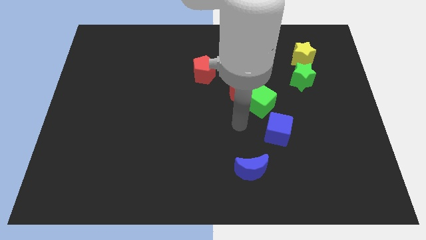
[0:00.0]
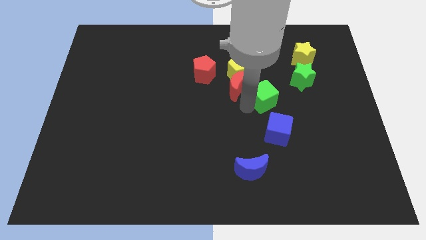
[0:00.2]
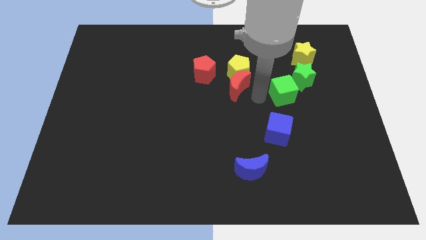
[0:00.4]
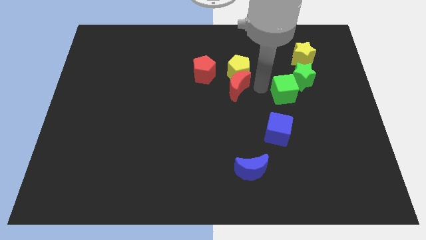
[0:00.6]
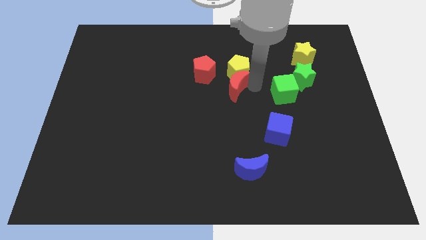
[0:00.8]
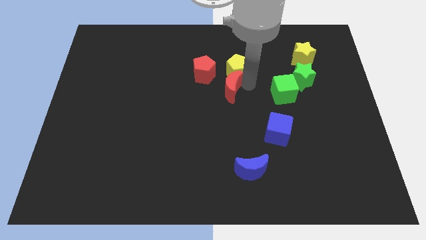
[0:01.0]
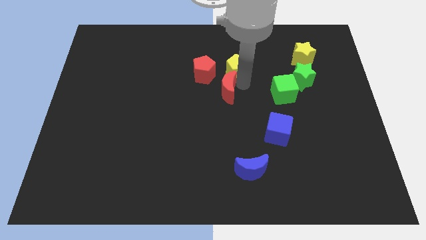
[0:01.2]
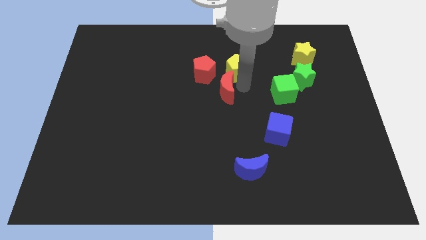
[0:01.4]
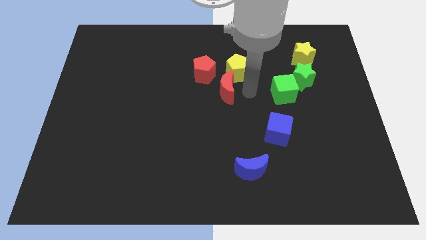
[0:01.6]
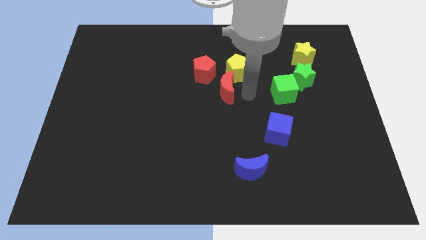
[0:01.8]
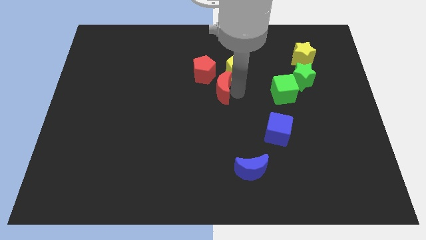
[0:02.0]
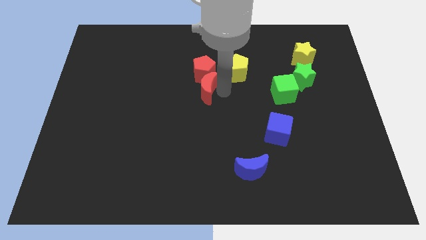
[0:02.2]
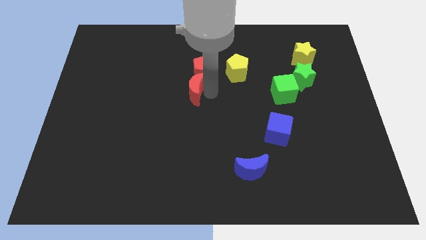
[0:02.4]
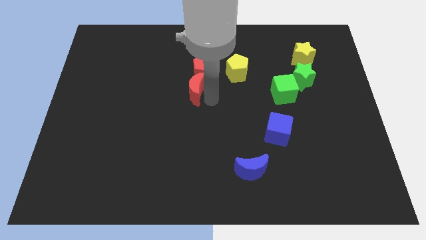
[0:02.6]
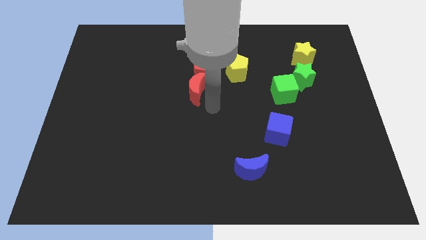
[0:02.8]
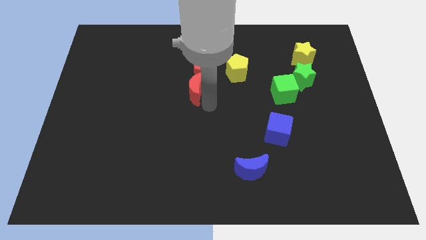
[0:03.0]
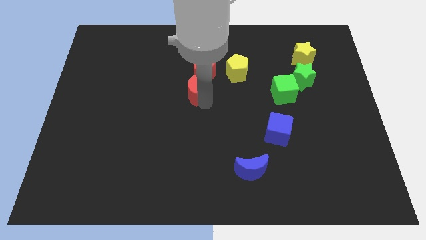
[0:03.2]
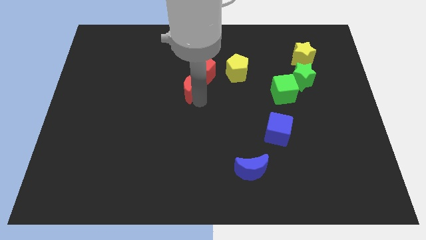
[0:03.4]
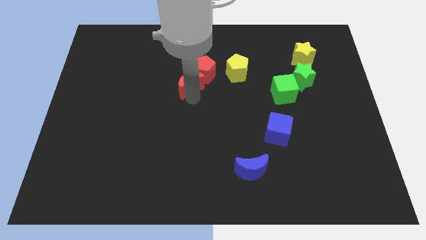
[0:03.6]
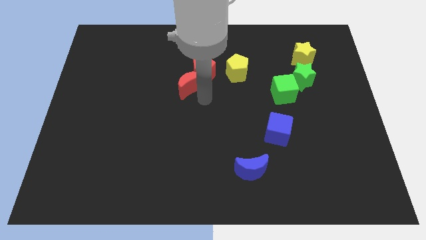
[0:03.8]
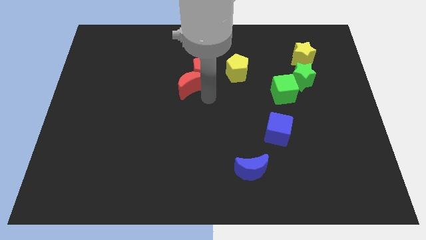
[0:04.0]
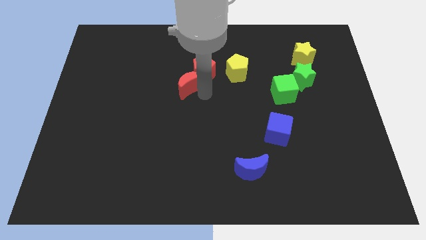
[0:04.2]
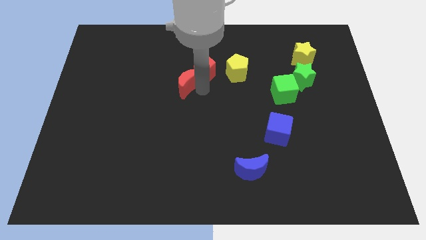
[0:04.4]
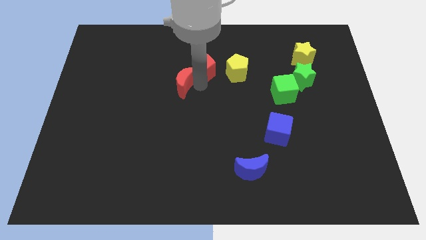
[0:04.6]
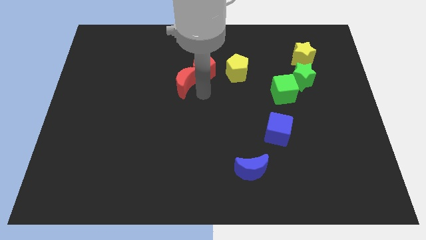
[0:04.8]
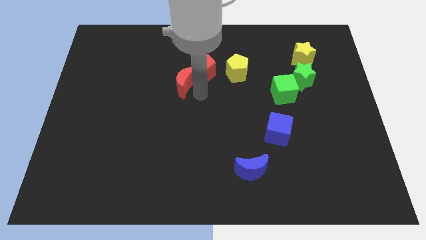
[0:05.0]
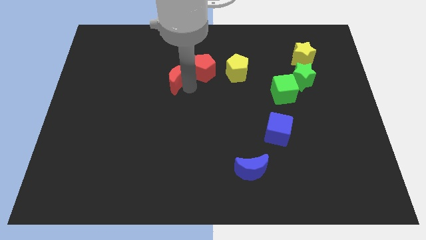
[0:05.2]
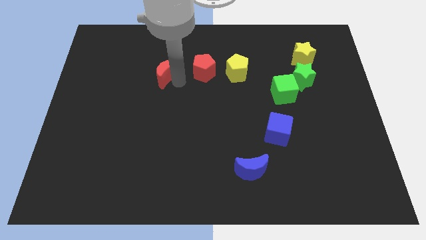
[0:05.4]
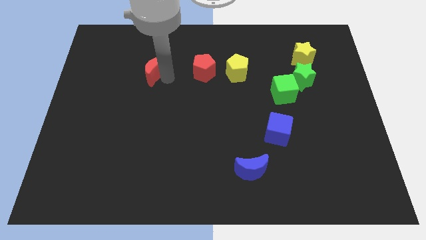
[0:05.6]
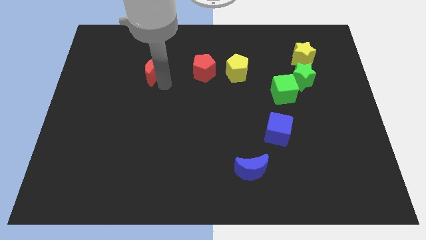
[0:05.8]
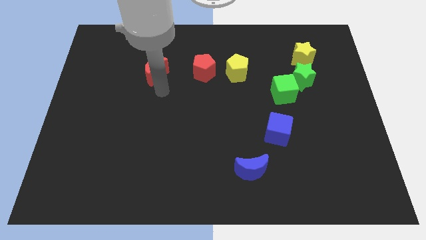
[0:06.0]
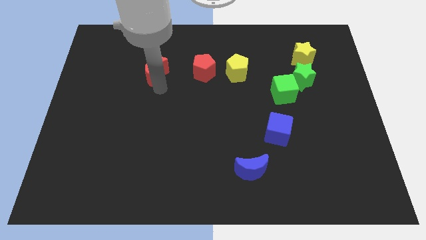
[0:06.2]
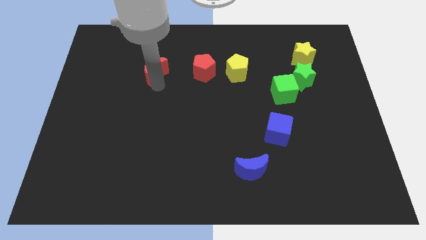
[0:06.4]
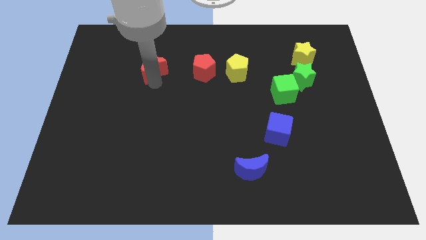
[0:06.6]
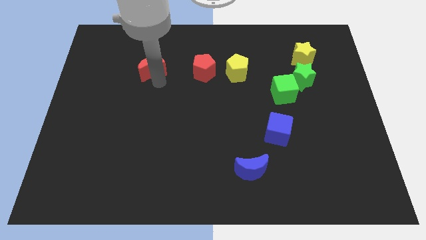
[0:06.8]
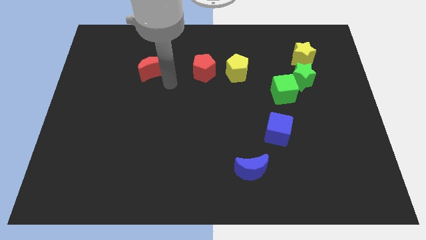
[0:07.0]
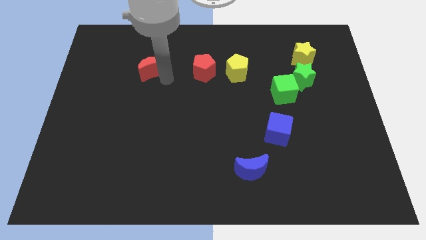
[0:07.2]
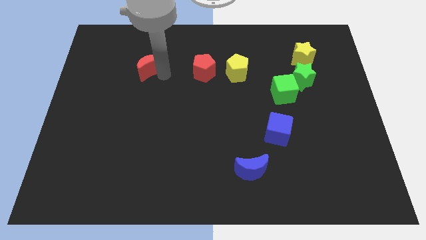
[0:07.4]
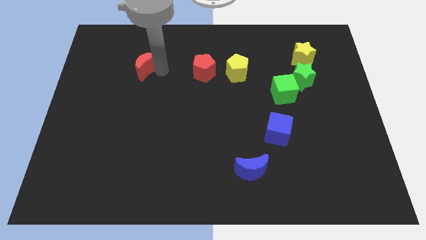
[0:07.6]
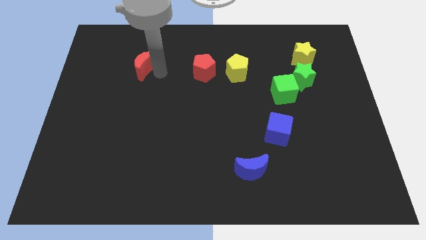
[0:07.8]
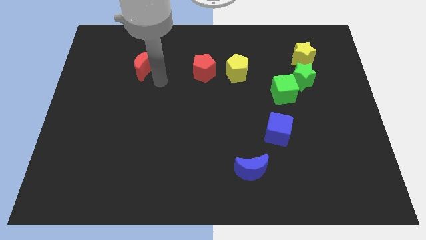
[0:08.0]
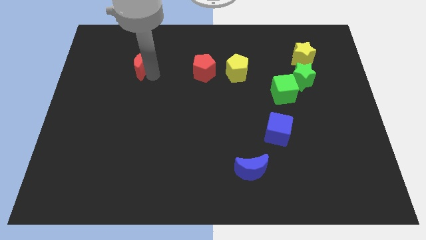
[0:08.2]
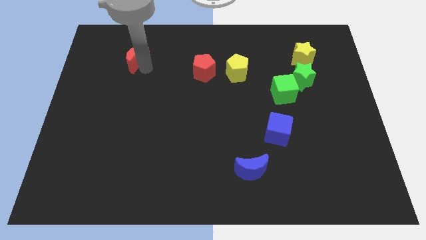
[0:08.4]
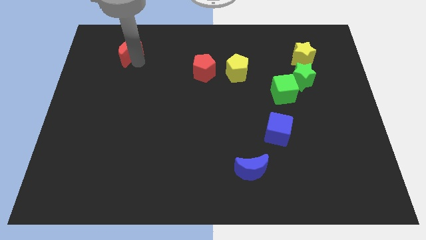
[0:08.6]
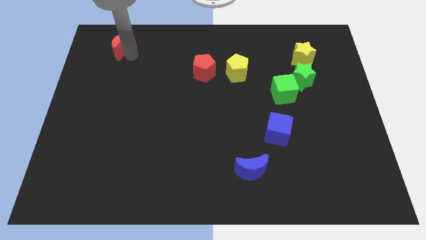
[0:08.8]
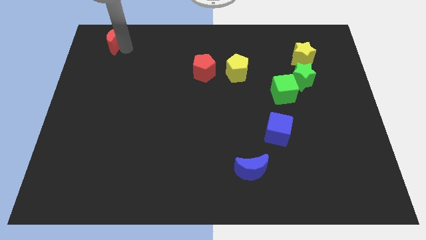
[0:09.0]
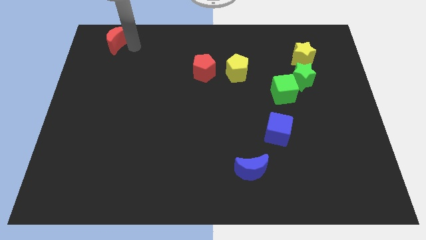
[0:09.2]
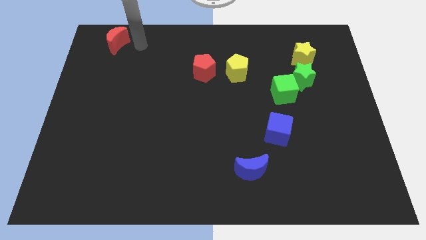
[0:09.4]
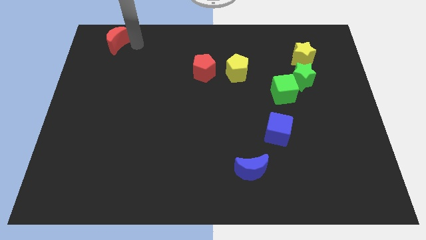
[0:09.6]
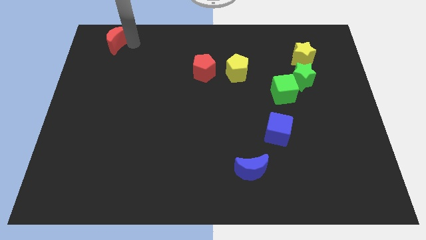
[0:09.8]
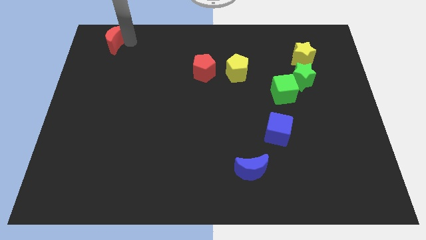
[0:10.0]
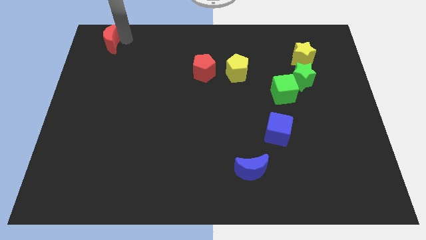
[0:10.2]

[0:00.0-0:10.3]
push the red moon to the top left corner

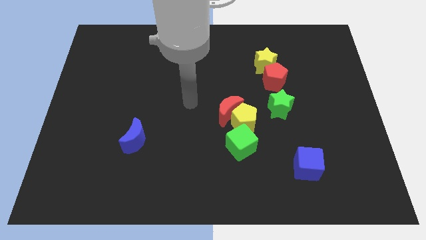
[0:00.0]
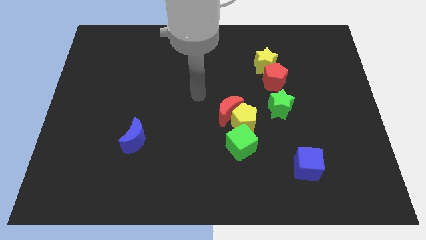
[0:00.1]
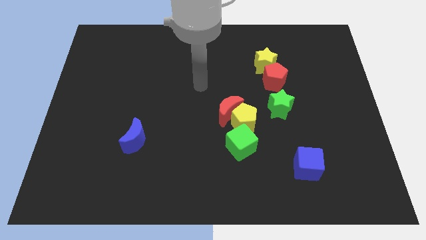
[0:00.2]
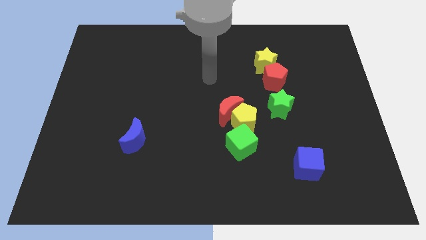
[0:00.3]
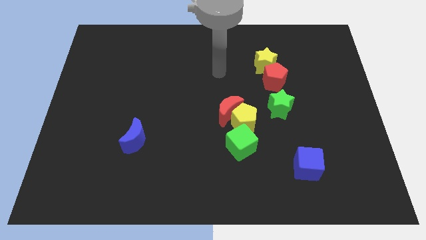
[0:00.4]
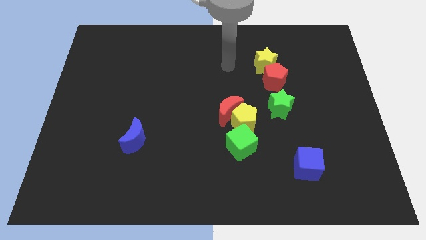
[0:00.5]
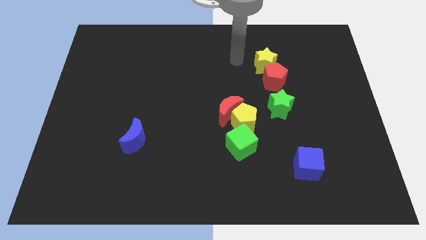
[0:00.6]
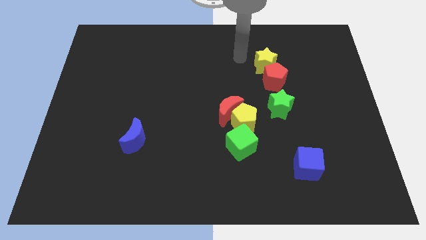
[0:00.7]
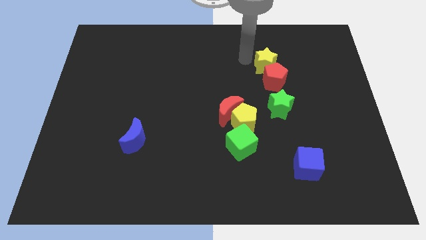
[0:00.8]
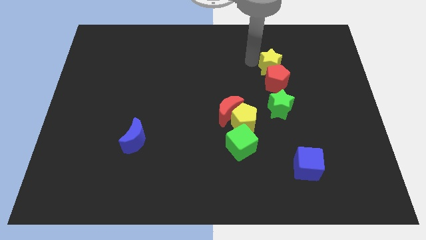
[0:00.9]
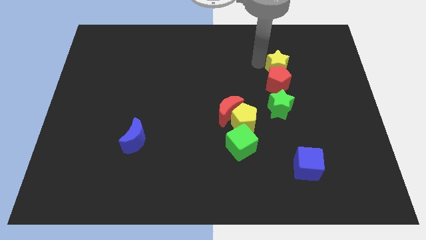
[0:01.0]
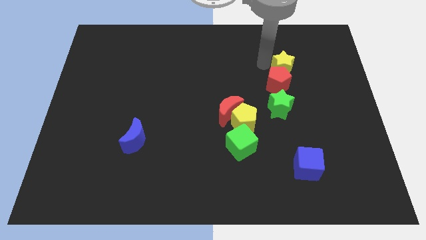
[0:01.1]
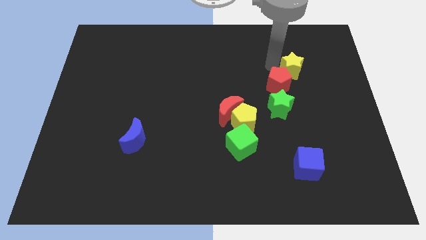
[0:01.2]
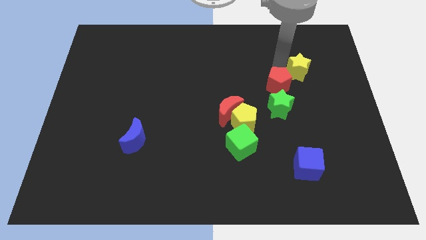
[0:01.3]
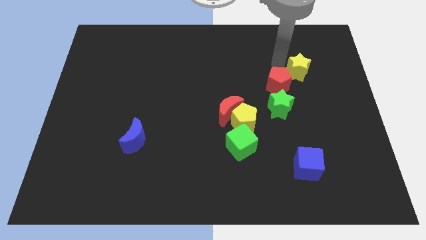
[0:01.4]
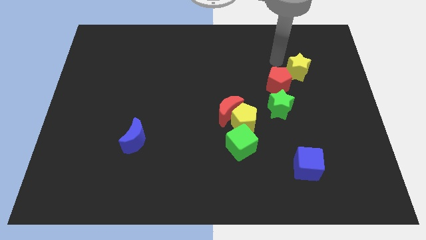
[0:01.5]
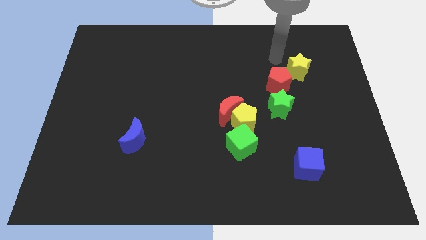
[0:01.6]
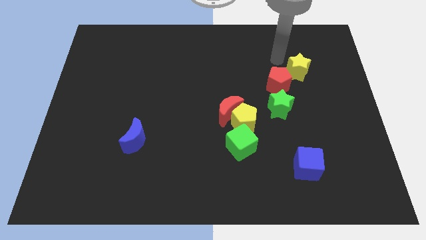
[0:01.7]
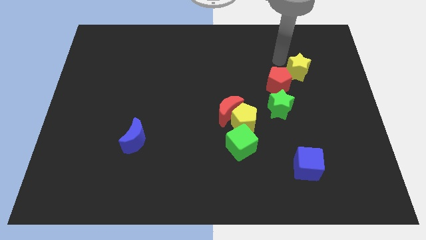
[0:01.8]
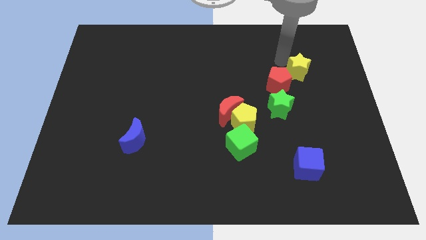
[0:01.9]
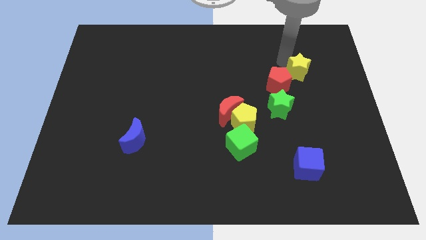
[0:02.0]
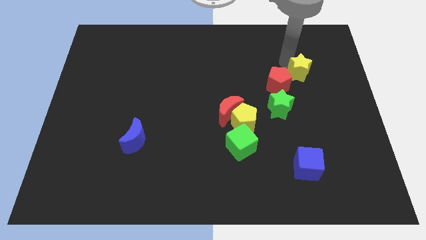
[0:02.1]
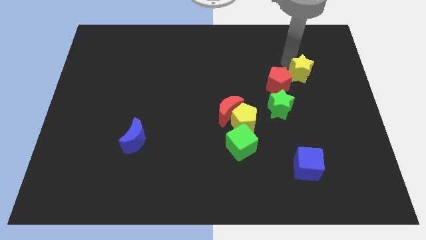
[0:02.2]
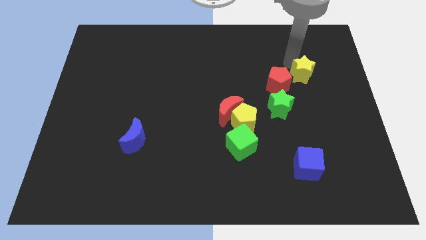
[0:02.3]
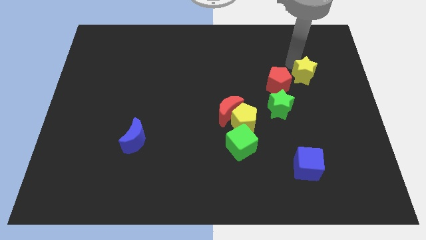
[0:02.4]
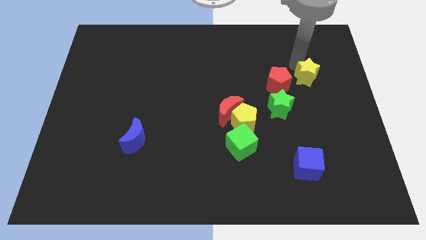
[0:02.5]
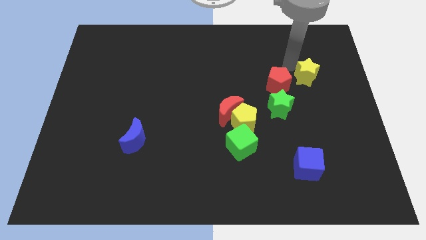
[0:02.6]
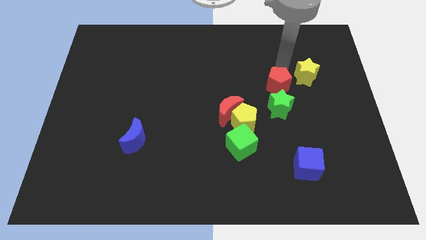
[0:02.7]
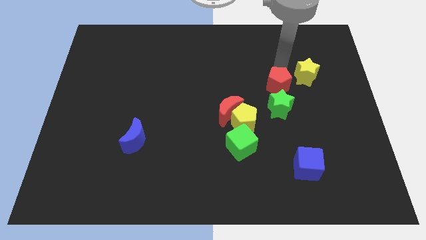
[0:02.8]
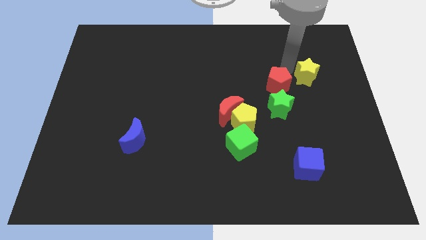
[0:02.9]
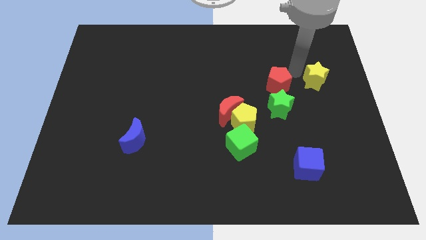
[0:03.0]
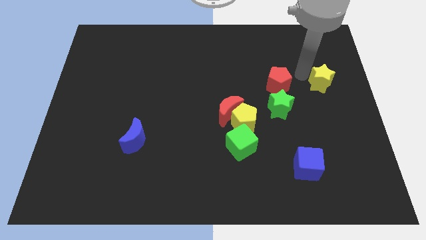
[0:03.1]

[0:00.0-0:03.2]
put the yellow star to the right side
